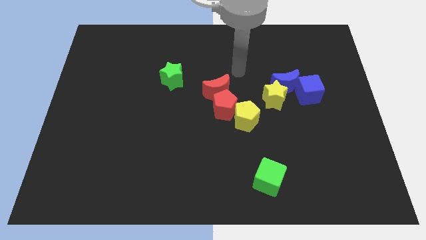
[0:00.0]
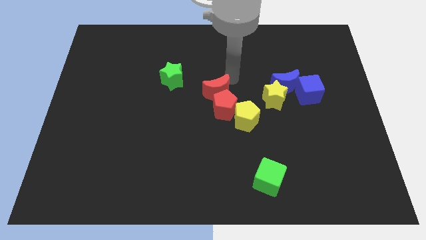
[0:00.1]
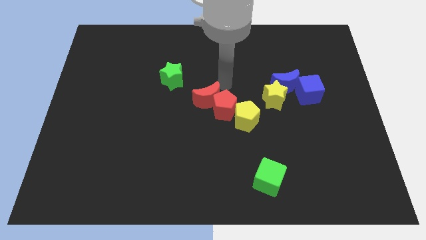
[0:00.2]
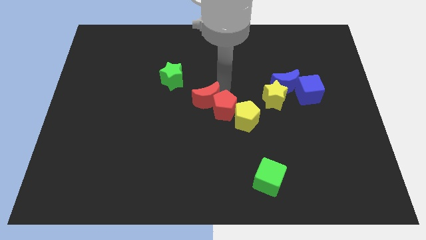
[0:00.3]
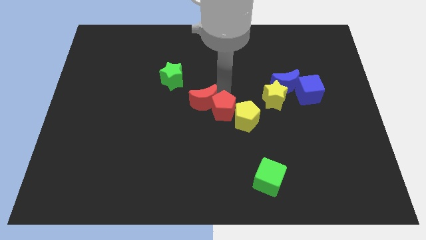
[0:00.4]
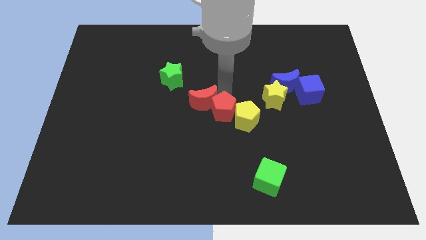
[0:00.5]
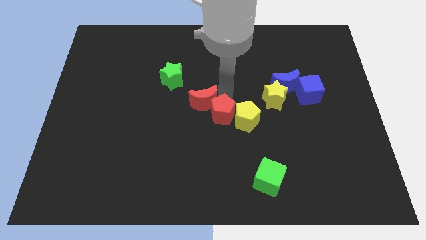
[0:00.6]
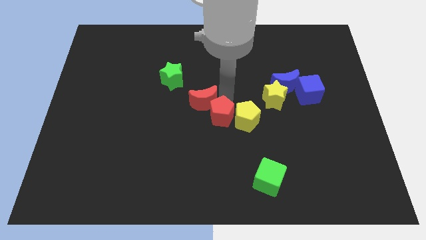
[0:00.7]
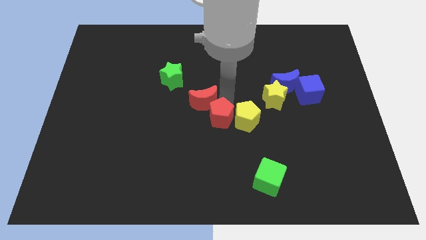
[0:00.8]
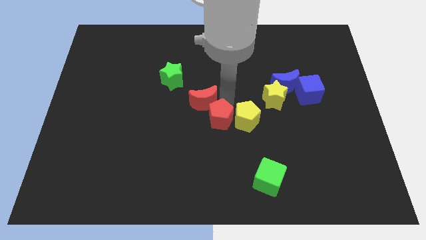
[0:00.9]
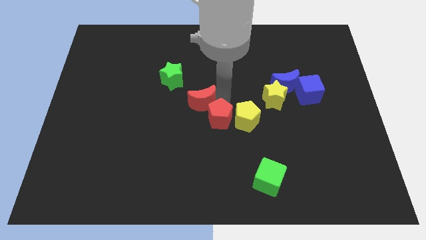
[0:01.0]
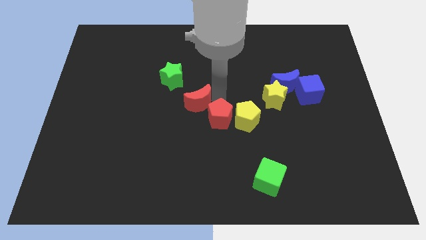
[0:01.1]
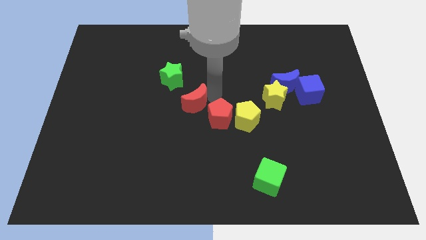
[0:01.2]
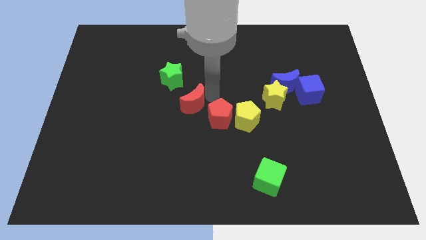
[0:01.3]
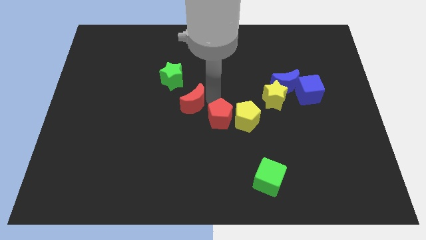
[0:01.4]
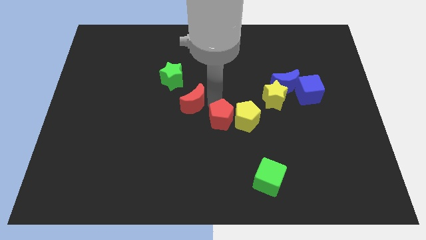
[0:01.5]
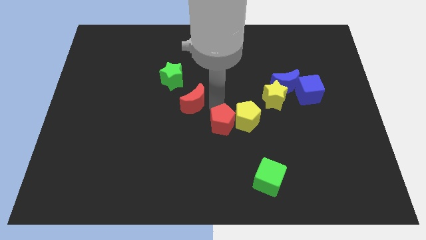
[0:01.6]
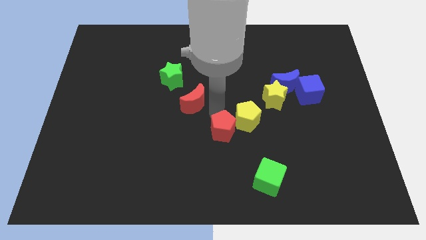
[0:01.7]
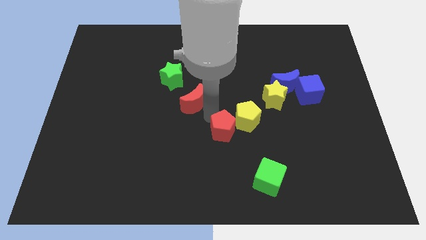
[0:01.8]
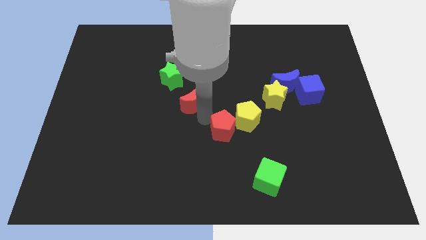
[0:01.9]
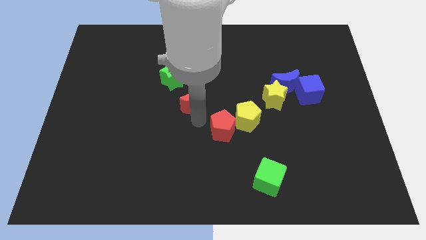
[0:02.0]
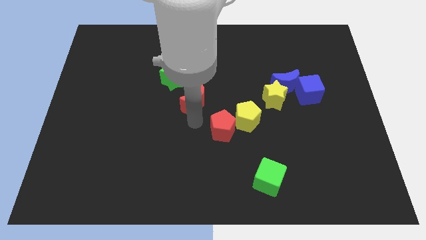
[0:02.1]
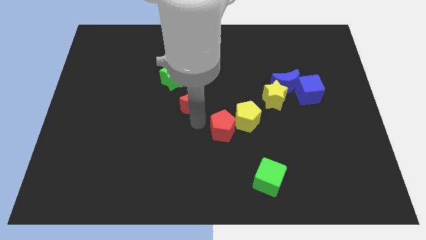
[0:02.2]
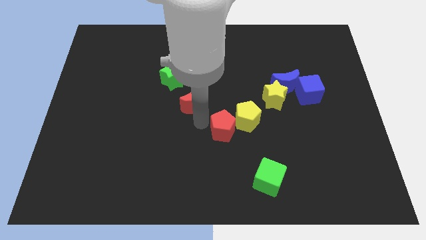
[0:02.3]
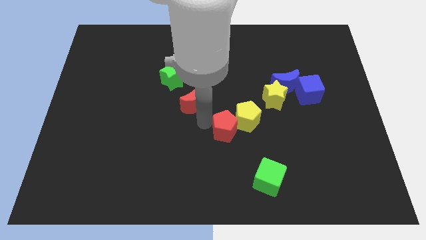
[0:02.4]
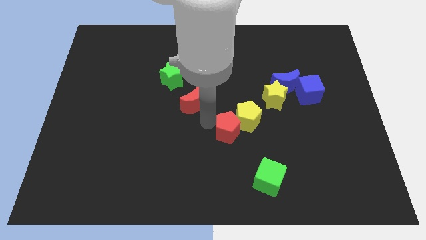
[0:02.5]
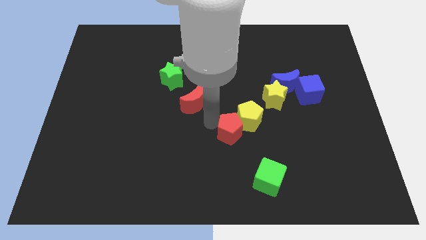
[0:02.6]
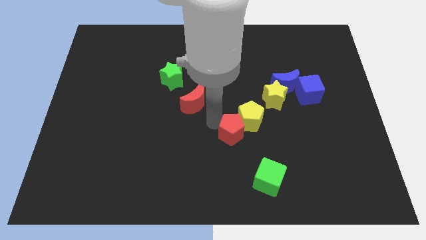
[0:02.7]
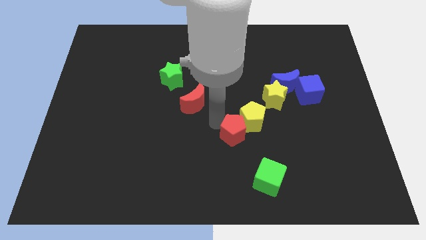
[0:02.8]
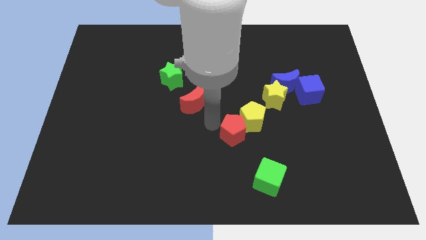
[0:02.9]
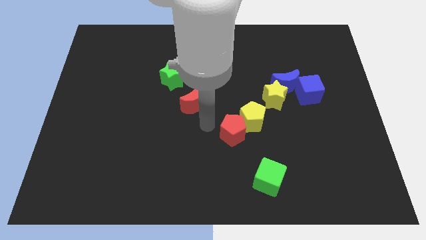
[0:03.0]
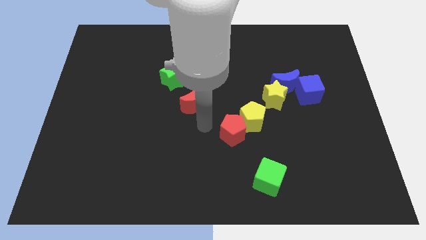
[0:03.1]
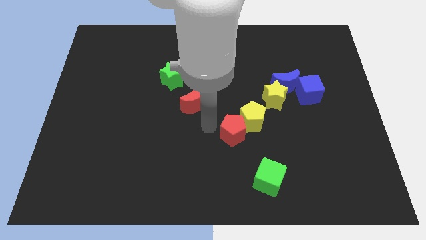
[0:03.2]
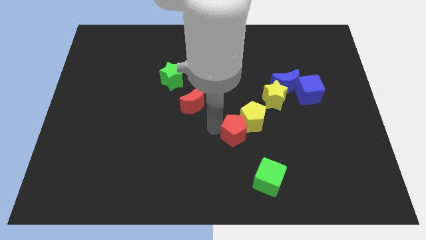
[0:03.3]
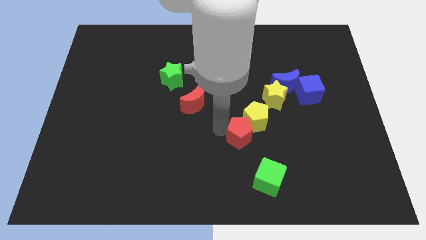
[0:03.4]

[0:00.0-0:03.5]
slightly push the red pentagon diagonally down and to the right

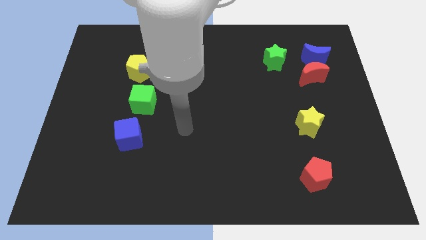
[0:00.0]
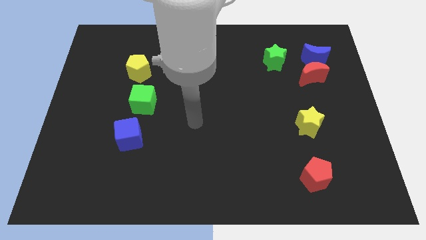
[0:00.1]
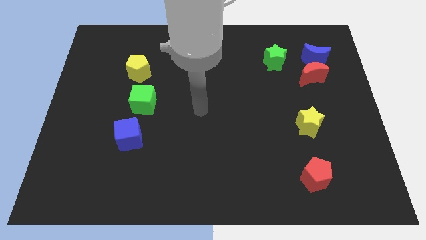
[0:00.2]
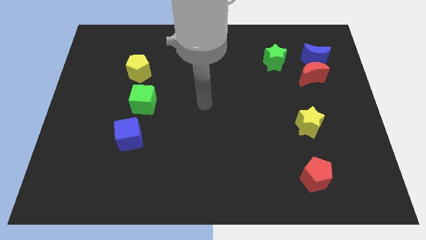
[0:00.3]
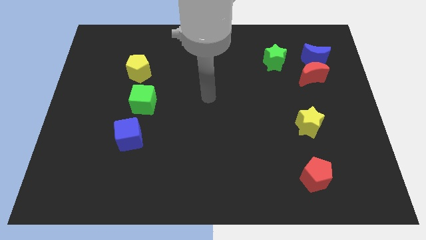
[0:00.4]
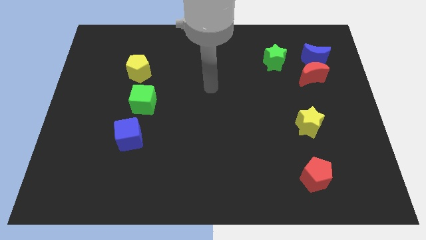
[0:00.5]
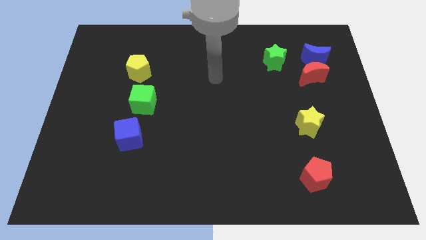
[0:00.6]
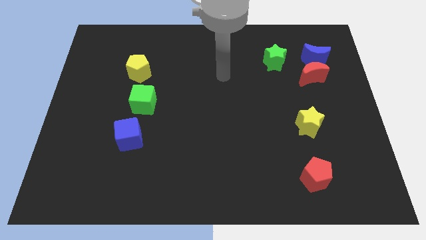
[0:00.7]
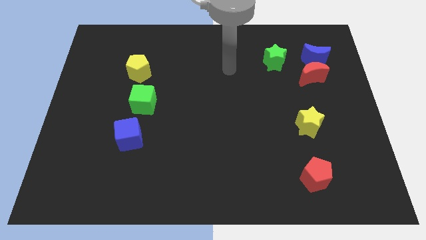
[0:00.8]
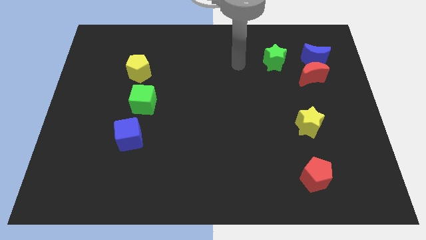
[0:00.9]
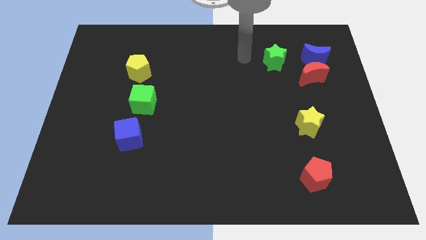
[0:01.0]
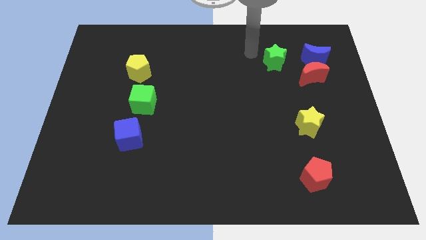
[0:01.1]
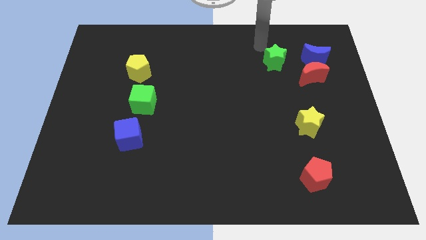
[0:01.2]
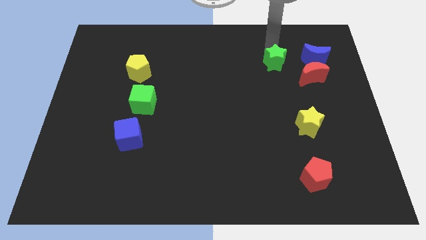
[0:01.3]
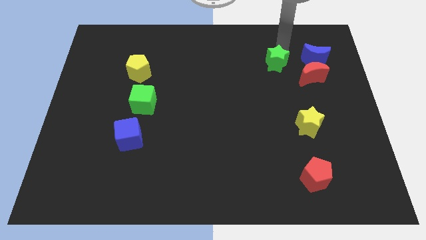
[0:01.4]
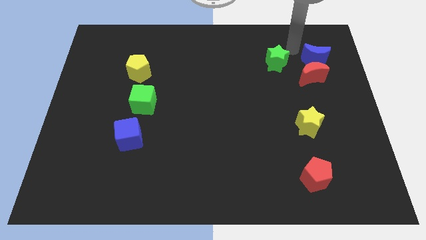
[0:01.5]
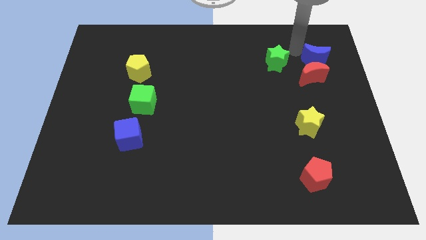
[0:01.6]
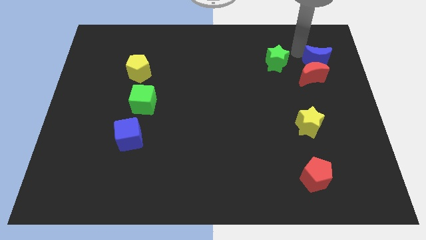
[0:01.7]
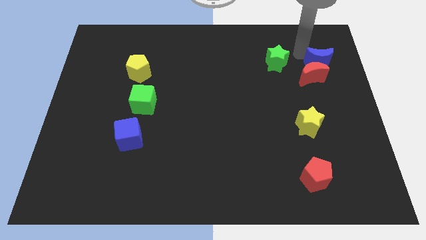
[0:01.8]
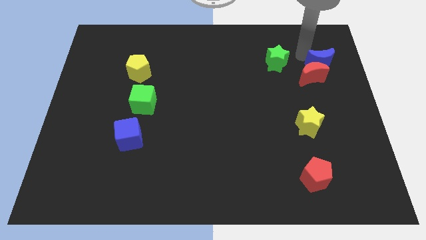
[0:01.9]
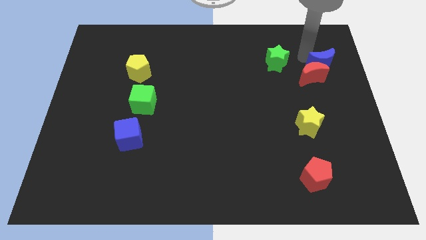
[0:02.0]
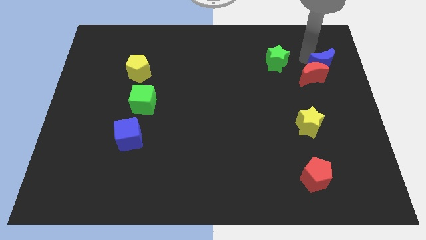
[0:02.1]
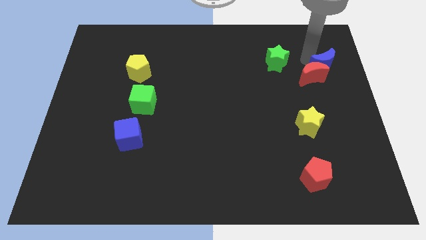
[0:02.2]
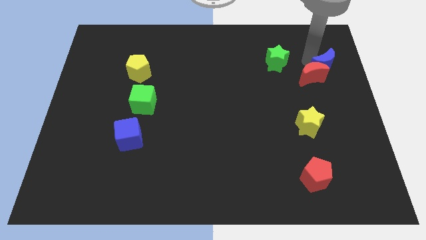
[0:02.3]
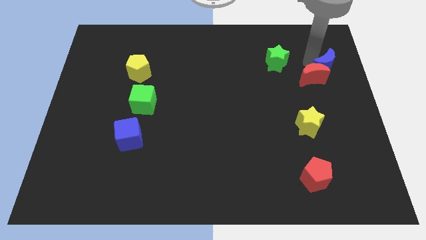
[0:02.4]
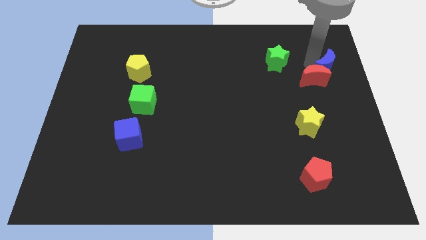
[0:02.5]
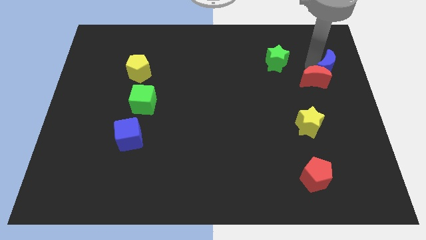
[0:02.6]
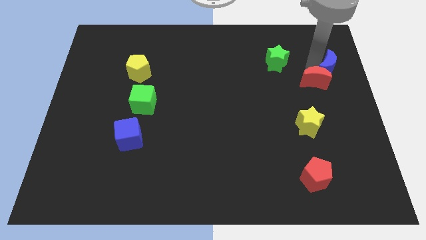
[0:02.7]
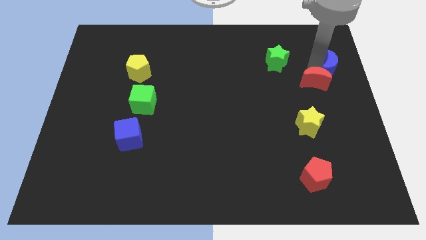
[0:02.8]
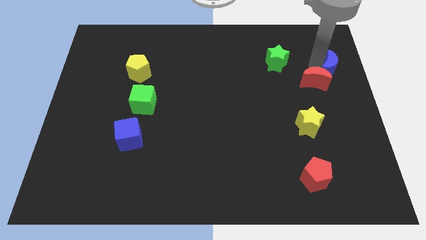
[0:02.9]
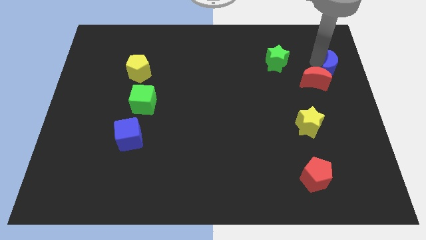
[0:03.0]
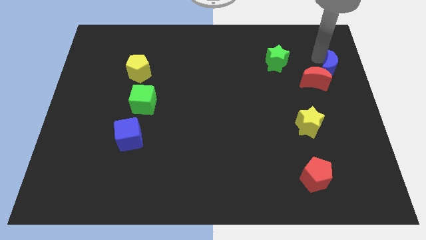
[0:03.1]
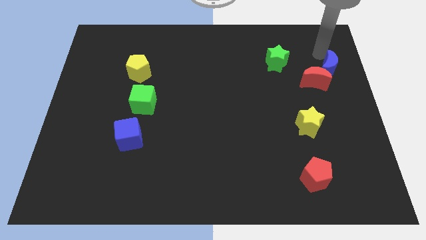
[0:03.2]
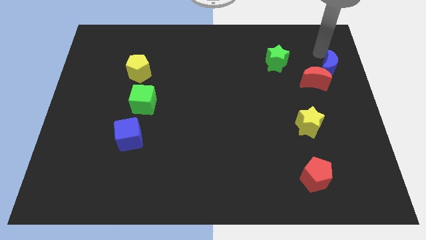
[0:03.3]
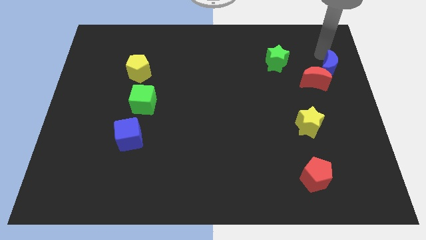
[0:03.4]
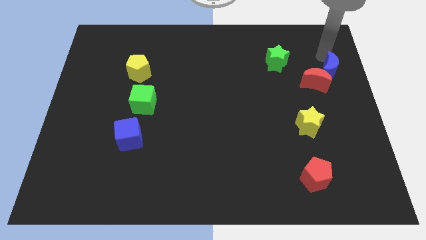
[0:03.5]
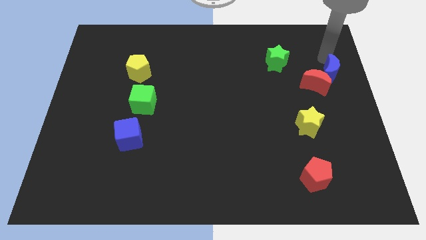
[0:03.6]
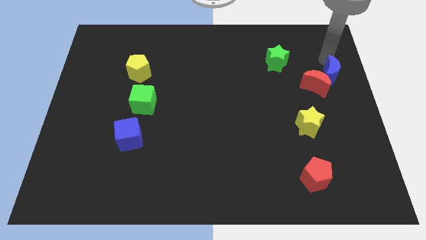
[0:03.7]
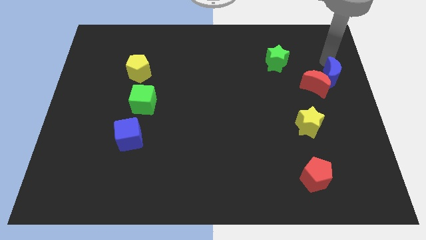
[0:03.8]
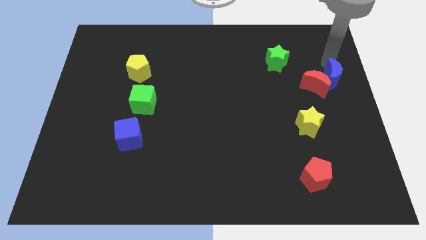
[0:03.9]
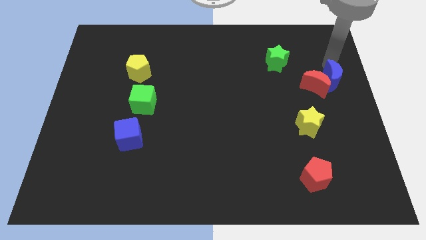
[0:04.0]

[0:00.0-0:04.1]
move the blue moon down a bit

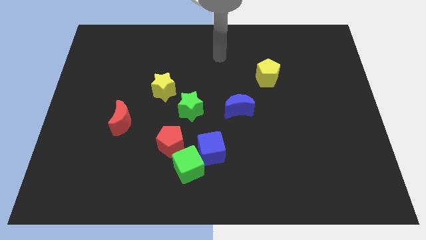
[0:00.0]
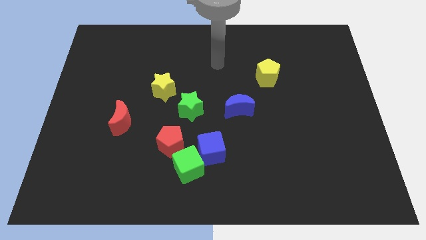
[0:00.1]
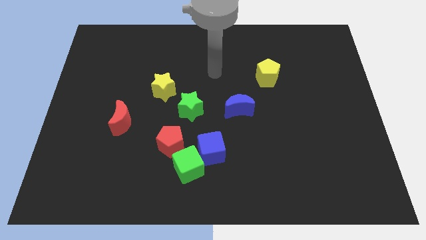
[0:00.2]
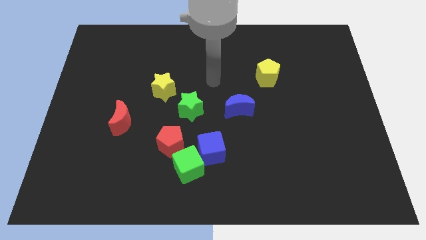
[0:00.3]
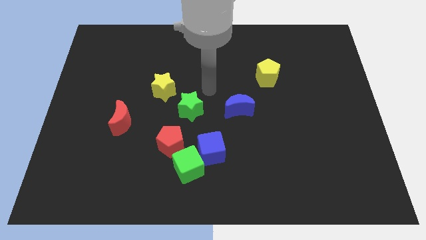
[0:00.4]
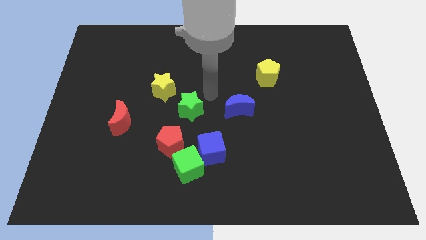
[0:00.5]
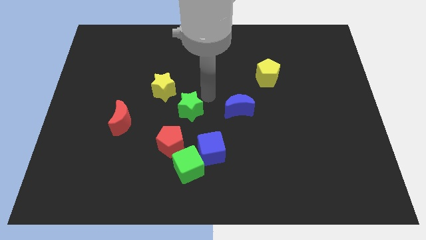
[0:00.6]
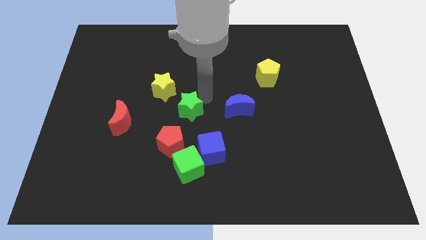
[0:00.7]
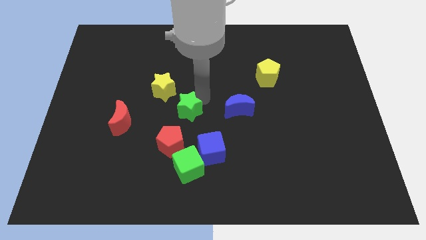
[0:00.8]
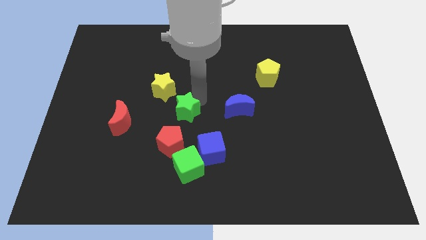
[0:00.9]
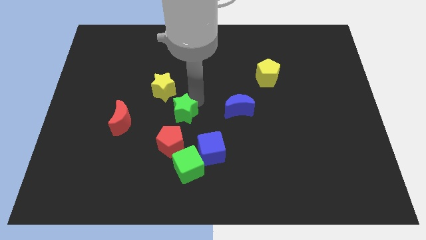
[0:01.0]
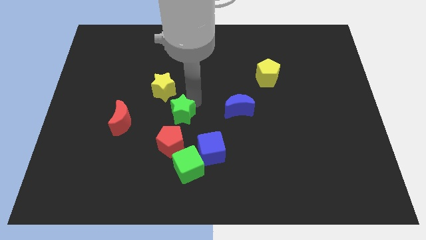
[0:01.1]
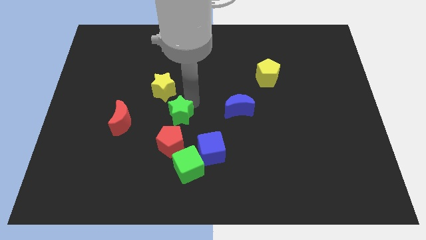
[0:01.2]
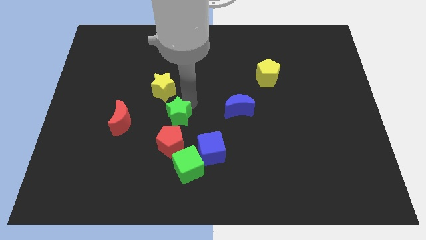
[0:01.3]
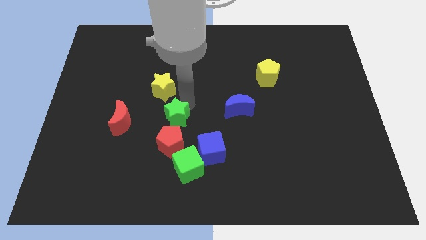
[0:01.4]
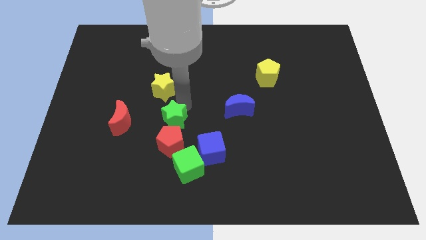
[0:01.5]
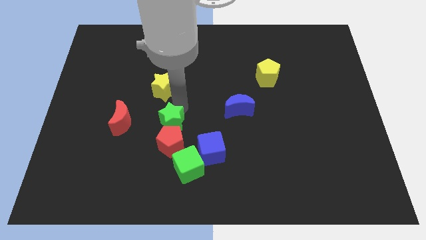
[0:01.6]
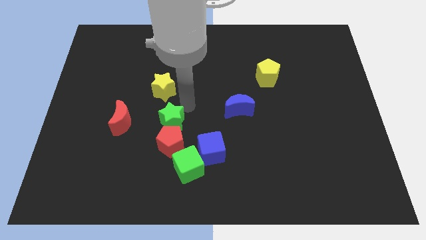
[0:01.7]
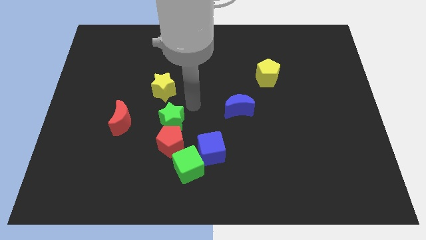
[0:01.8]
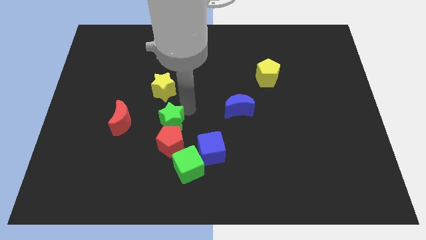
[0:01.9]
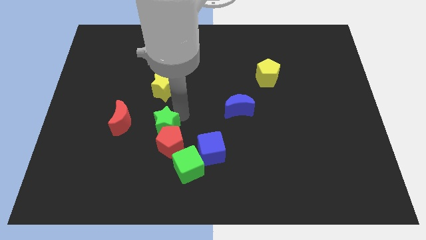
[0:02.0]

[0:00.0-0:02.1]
slide the green star down and left diagonally slightly
